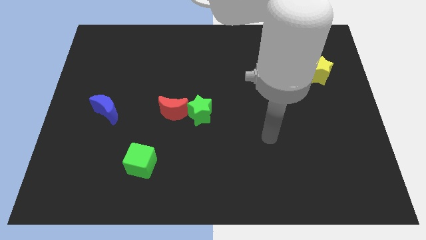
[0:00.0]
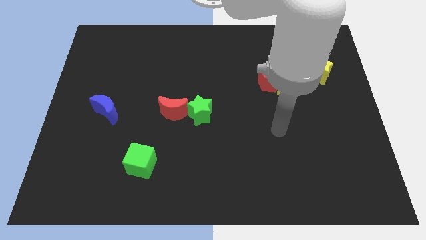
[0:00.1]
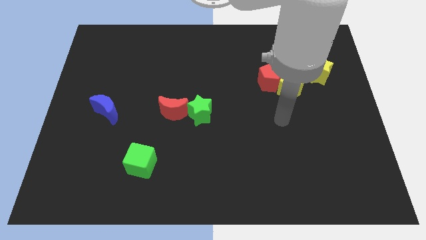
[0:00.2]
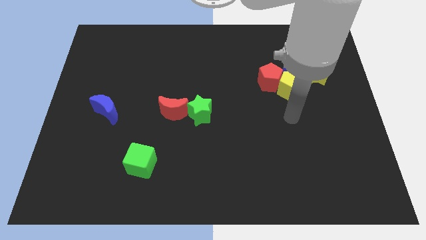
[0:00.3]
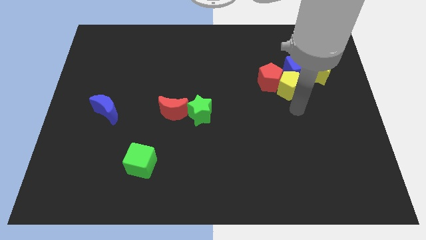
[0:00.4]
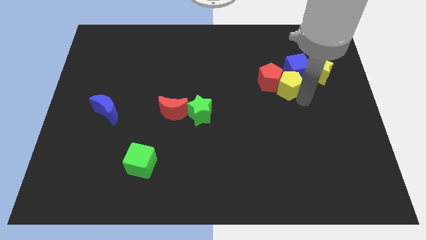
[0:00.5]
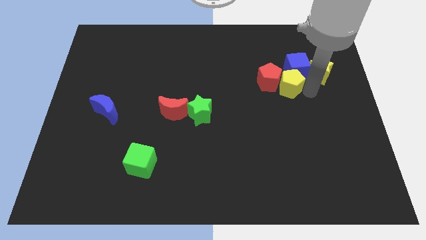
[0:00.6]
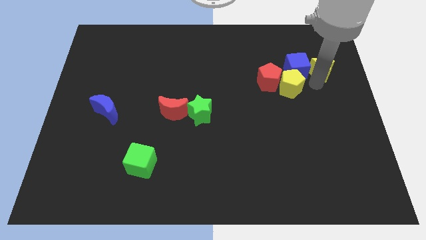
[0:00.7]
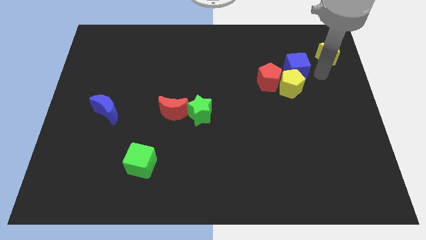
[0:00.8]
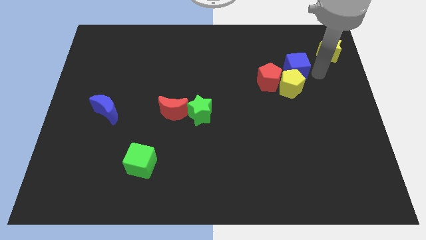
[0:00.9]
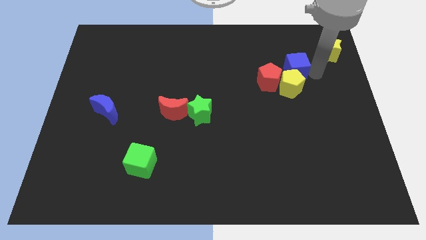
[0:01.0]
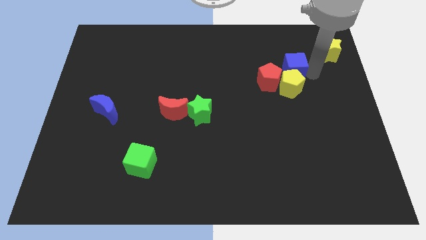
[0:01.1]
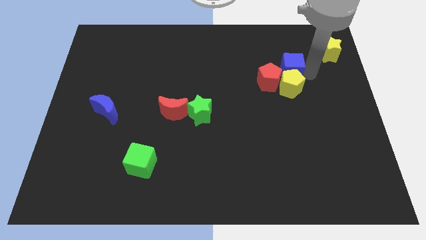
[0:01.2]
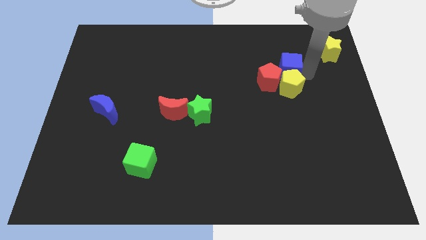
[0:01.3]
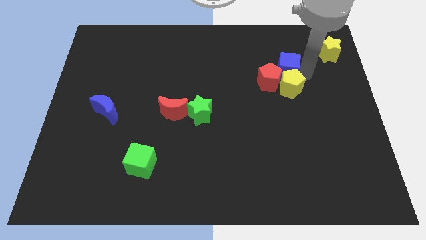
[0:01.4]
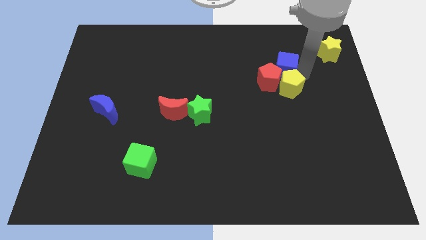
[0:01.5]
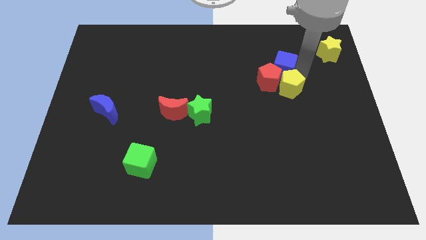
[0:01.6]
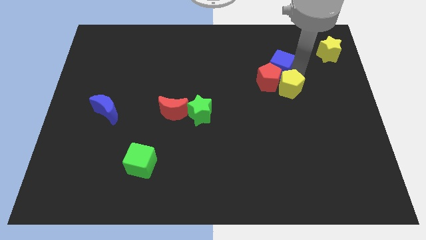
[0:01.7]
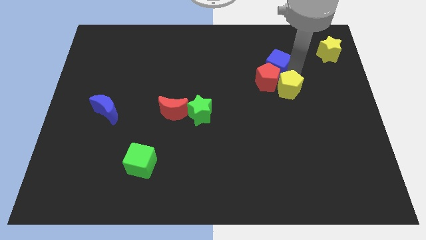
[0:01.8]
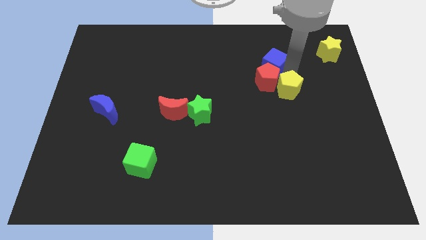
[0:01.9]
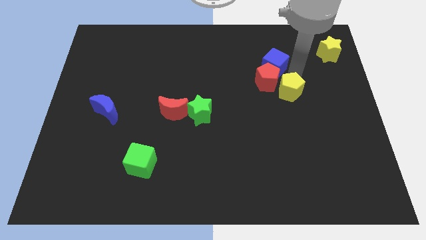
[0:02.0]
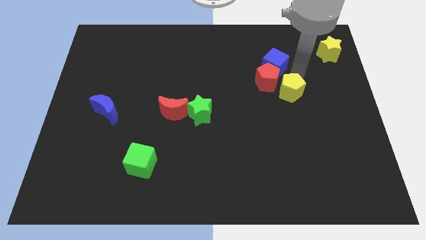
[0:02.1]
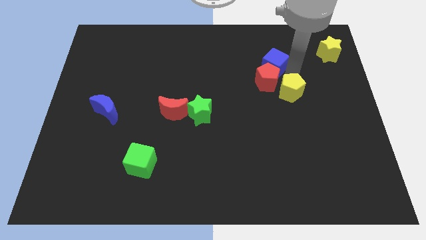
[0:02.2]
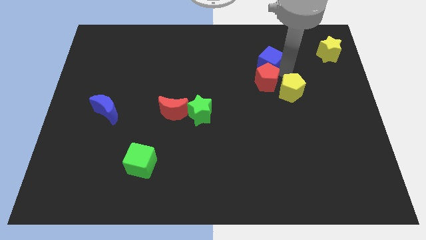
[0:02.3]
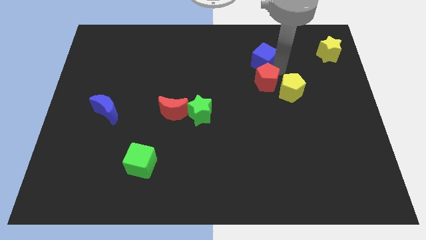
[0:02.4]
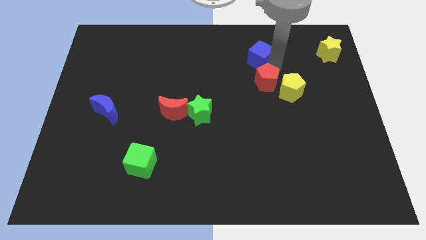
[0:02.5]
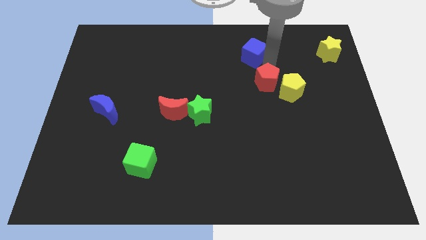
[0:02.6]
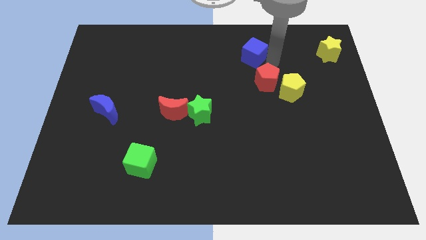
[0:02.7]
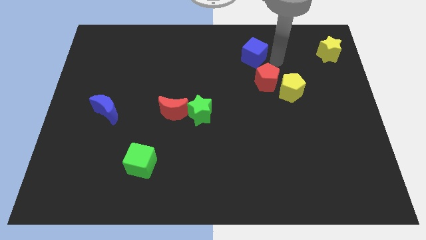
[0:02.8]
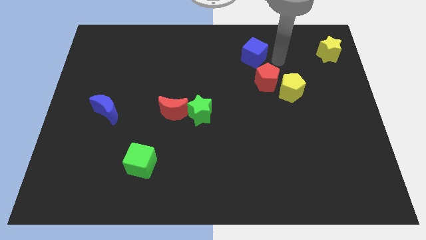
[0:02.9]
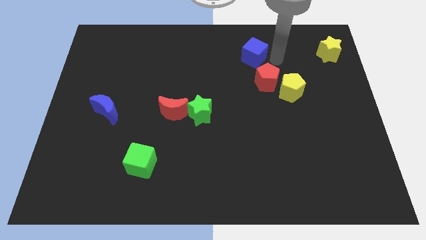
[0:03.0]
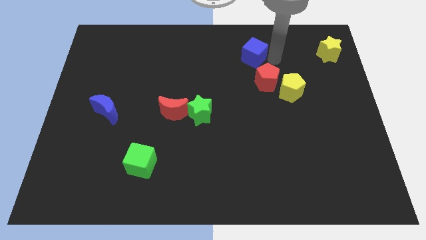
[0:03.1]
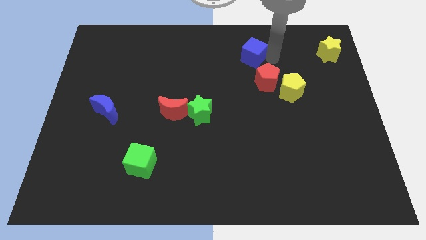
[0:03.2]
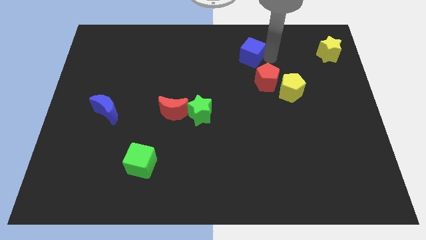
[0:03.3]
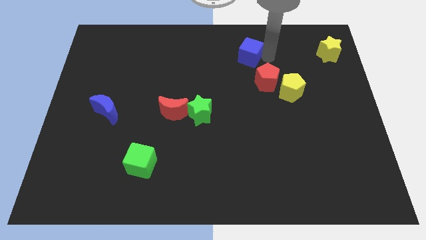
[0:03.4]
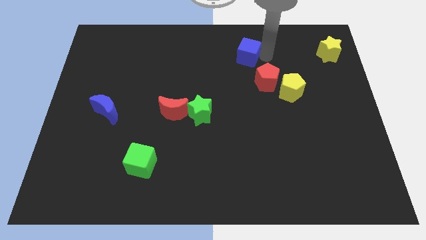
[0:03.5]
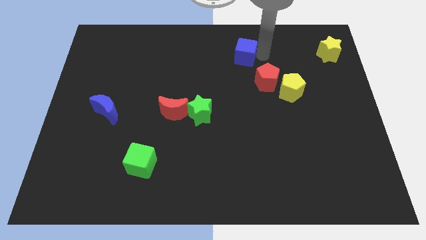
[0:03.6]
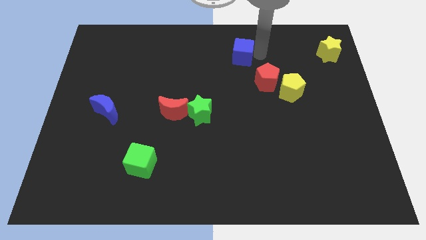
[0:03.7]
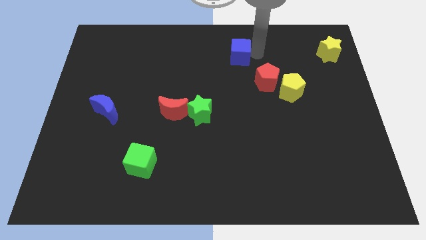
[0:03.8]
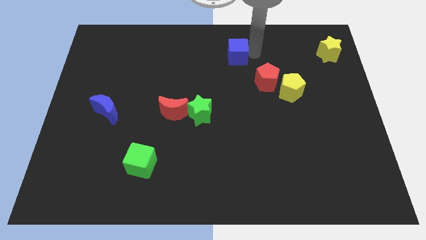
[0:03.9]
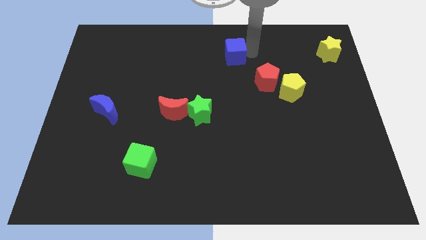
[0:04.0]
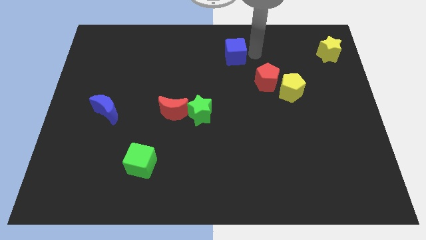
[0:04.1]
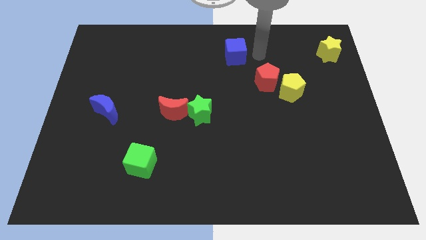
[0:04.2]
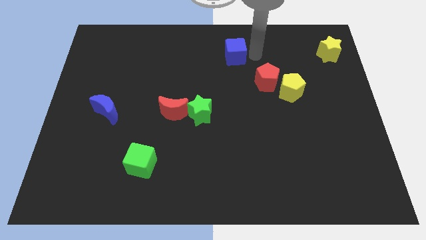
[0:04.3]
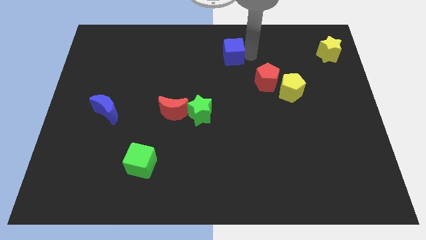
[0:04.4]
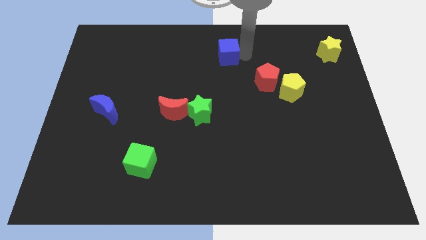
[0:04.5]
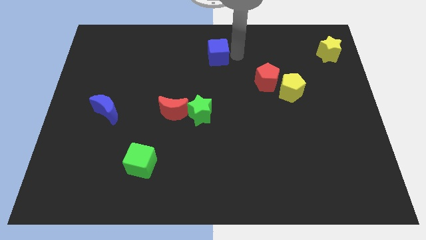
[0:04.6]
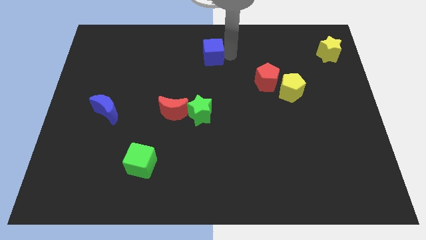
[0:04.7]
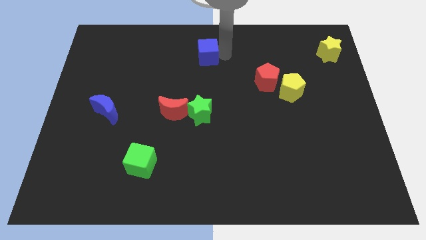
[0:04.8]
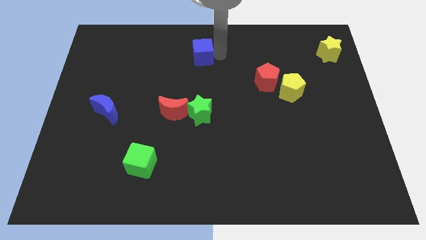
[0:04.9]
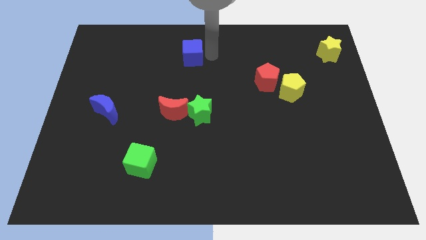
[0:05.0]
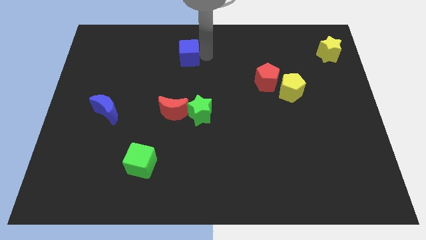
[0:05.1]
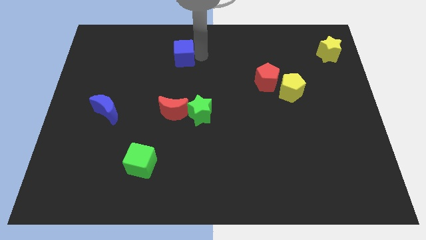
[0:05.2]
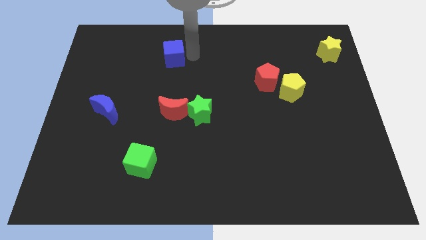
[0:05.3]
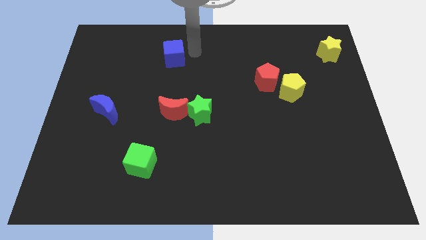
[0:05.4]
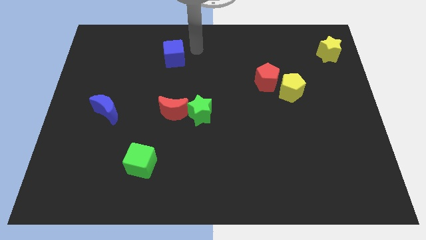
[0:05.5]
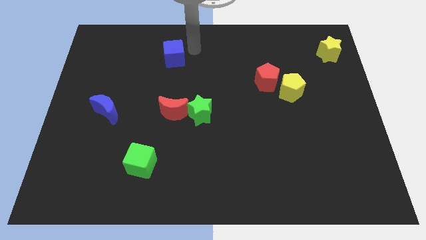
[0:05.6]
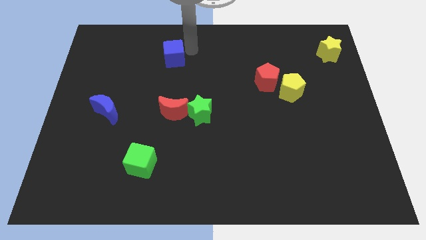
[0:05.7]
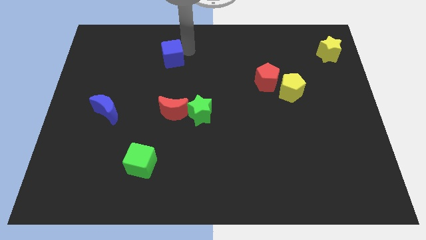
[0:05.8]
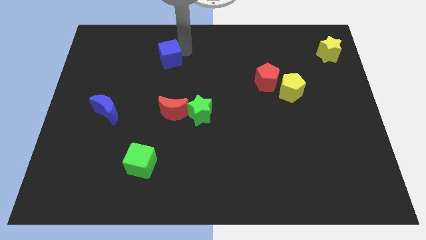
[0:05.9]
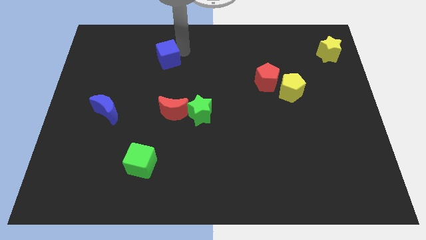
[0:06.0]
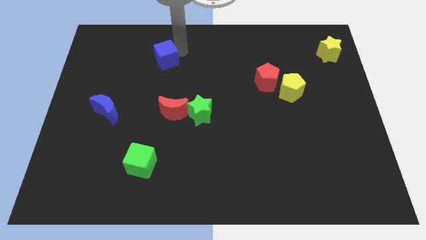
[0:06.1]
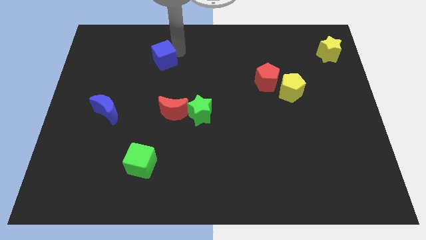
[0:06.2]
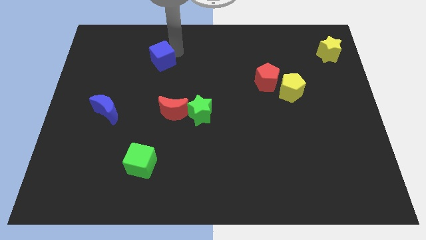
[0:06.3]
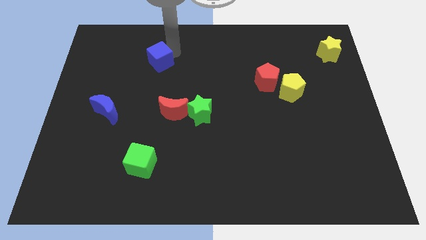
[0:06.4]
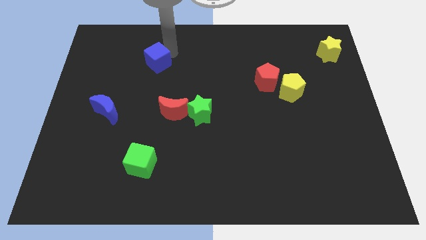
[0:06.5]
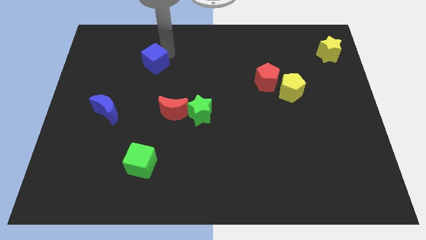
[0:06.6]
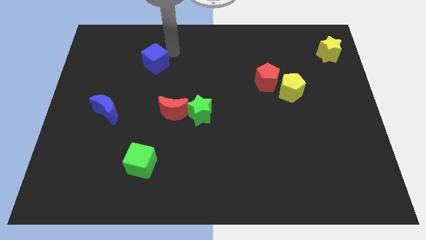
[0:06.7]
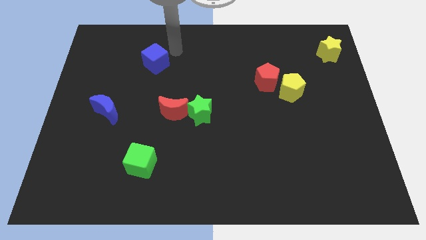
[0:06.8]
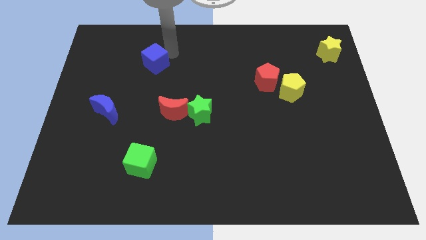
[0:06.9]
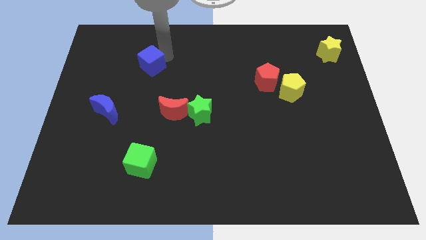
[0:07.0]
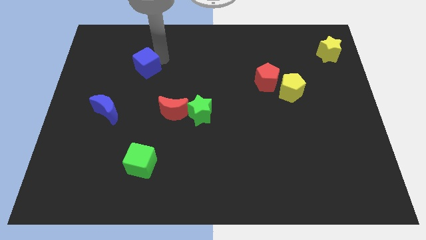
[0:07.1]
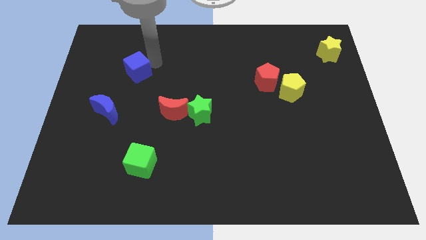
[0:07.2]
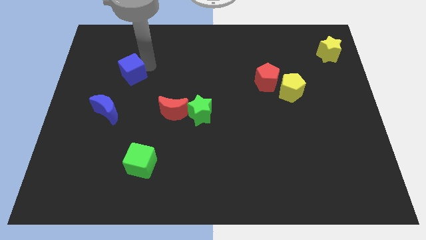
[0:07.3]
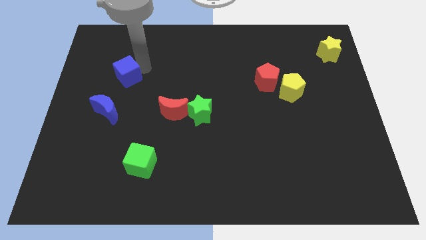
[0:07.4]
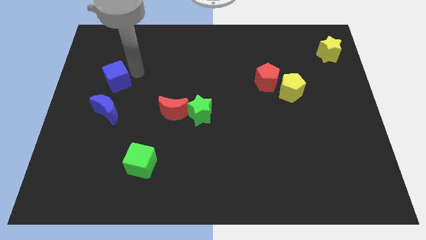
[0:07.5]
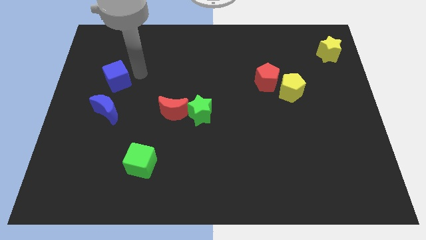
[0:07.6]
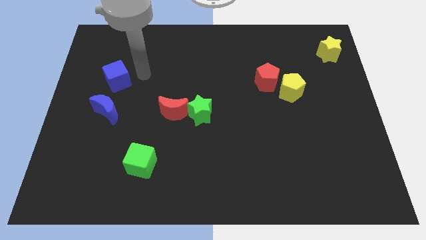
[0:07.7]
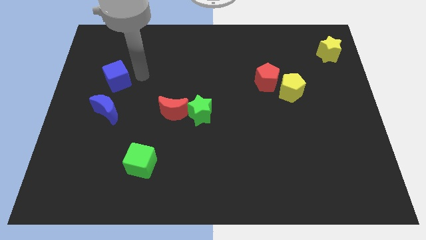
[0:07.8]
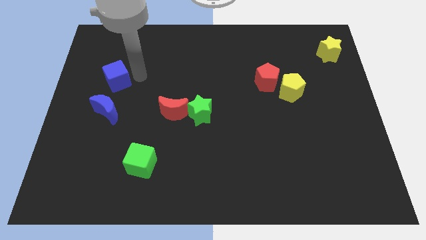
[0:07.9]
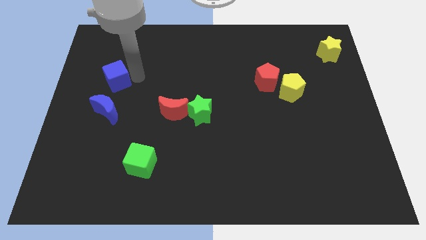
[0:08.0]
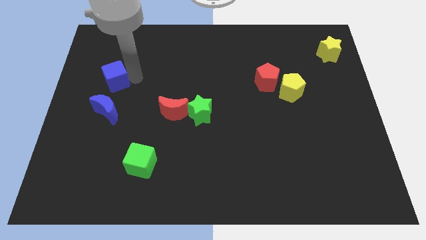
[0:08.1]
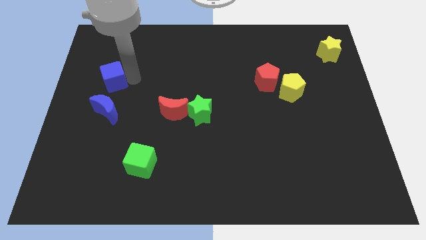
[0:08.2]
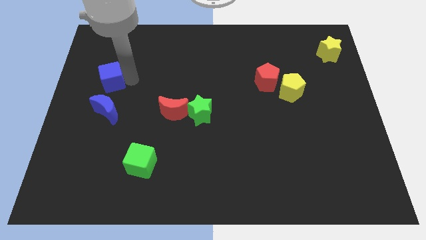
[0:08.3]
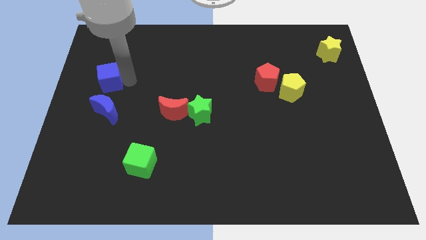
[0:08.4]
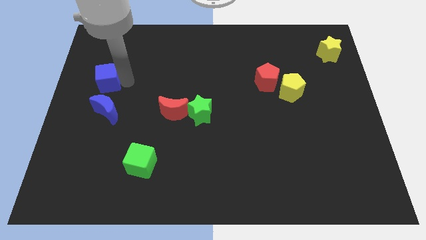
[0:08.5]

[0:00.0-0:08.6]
move the blue cube to the left side
